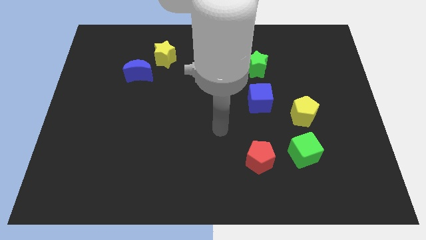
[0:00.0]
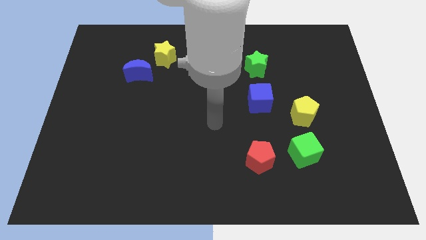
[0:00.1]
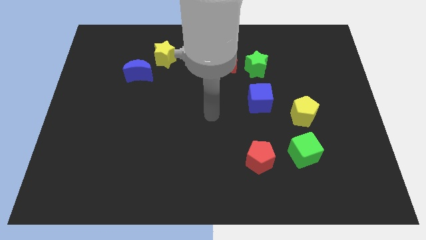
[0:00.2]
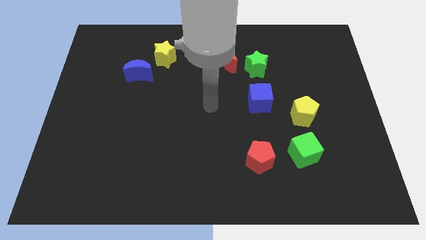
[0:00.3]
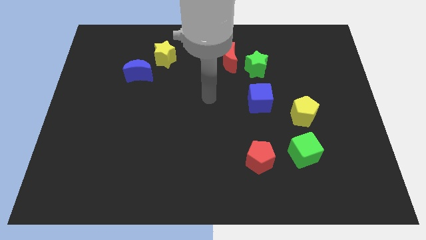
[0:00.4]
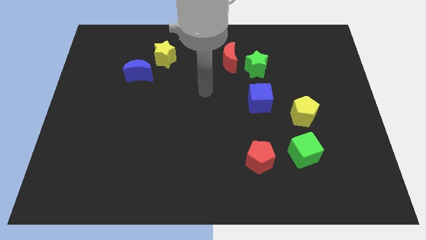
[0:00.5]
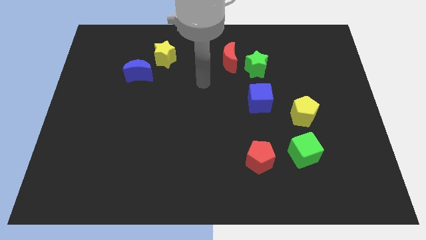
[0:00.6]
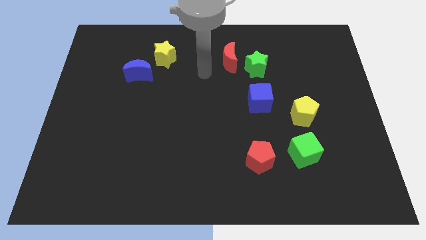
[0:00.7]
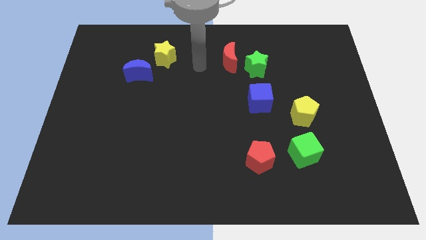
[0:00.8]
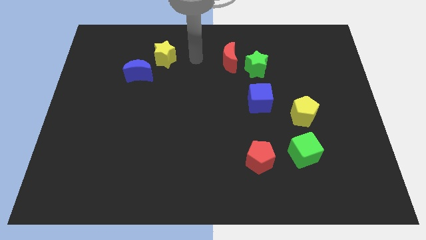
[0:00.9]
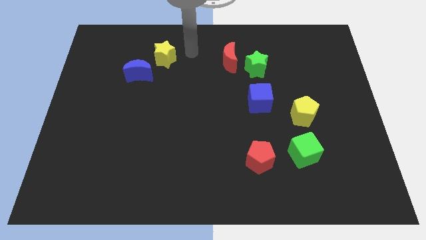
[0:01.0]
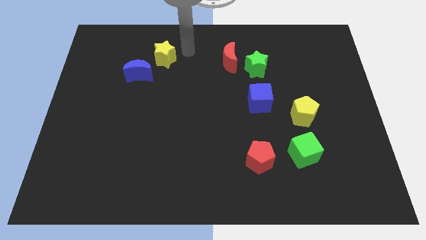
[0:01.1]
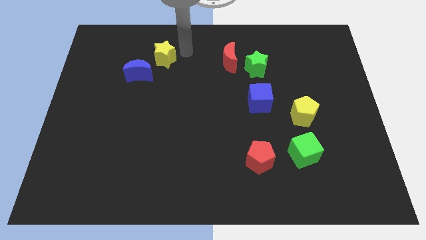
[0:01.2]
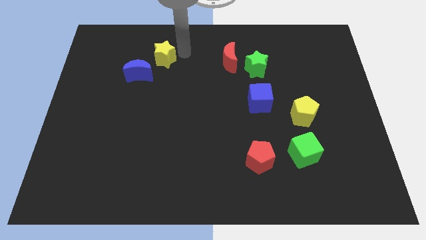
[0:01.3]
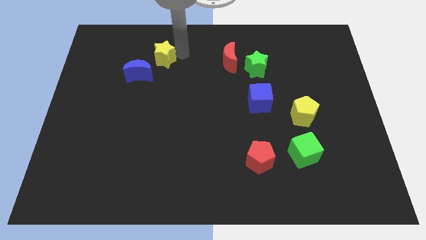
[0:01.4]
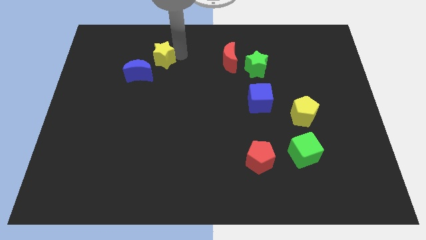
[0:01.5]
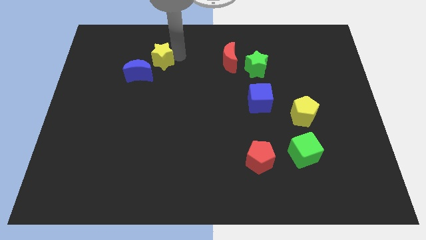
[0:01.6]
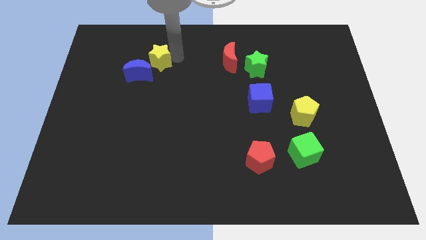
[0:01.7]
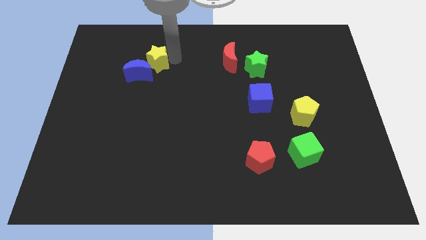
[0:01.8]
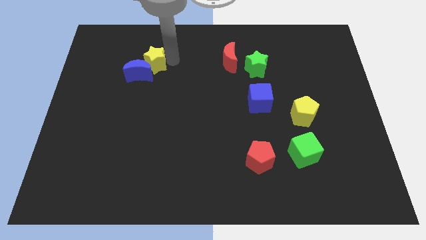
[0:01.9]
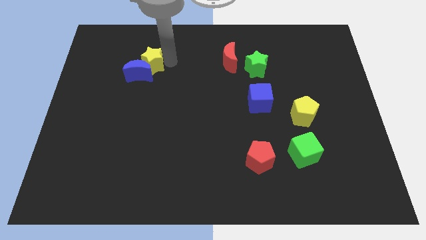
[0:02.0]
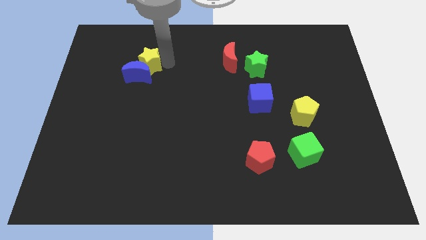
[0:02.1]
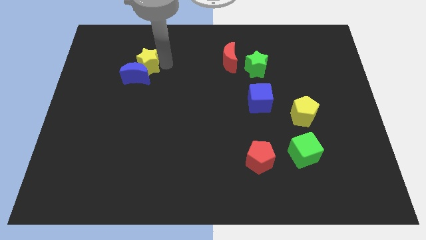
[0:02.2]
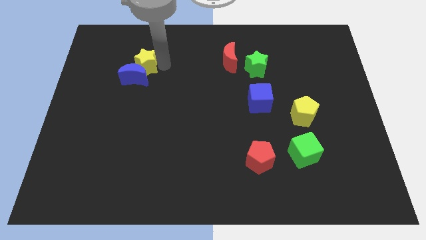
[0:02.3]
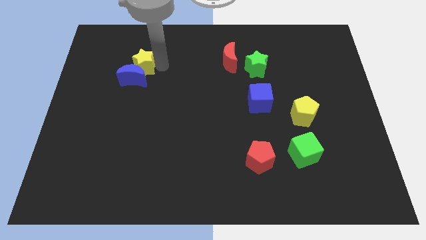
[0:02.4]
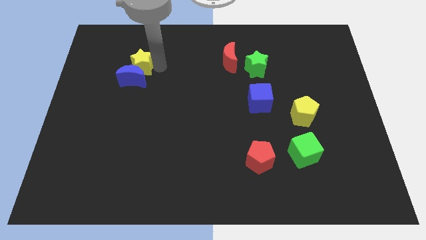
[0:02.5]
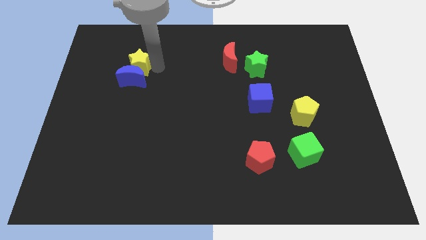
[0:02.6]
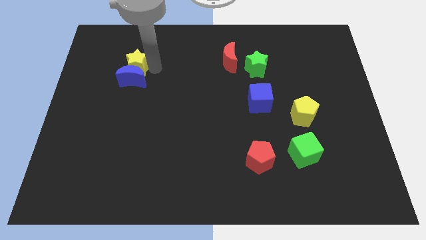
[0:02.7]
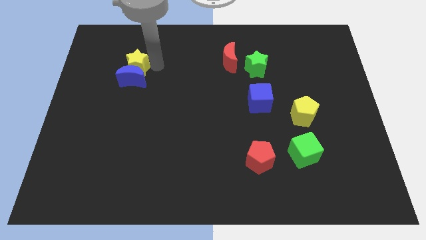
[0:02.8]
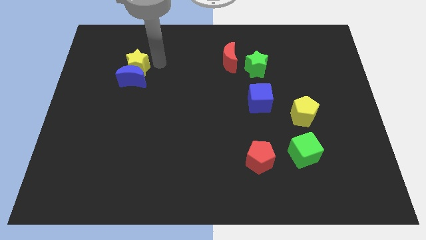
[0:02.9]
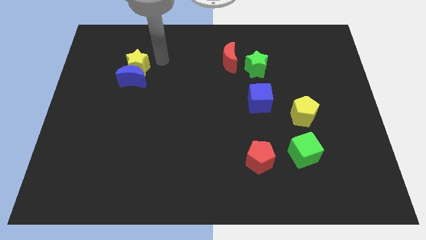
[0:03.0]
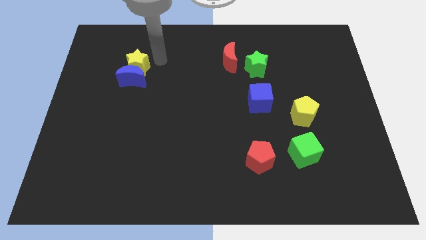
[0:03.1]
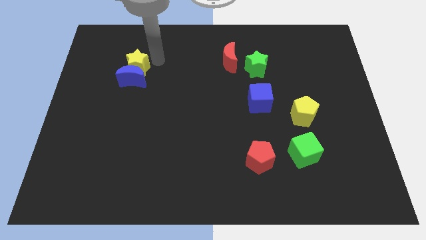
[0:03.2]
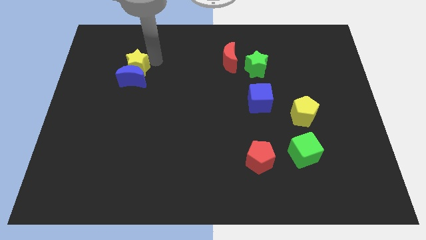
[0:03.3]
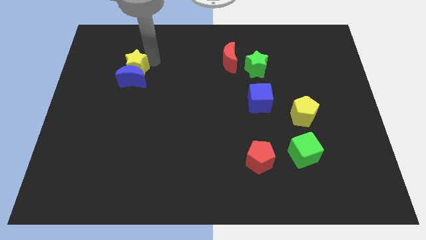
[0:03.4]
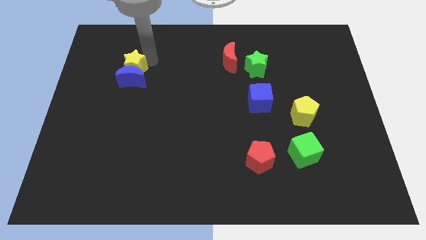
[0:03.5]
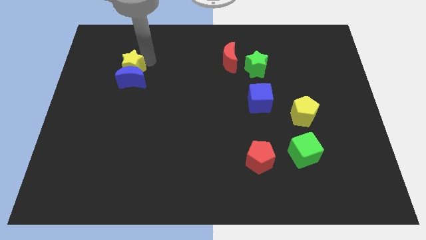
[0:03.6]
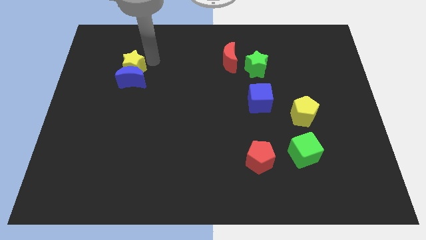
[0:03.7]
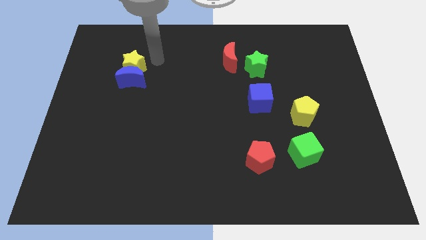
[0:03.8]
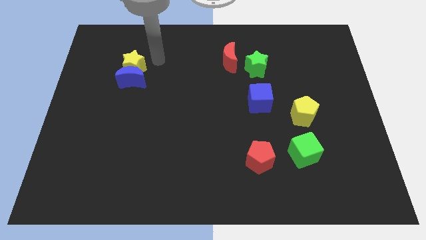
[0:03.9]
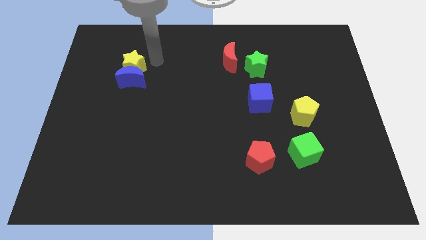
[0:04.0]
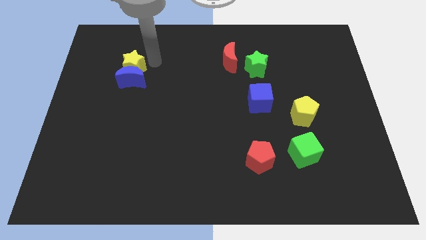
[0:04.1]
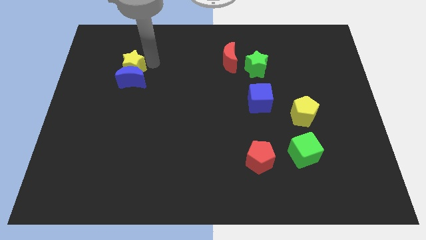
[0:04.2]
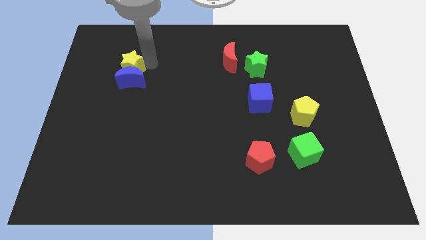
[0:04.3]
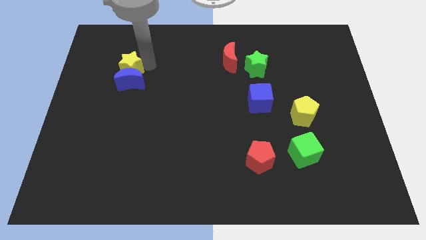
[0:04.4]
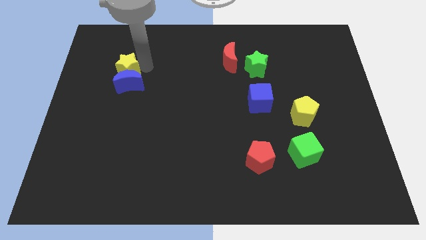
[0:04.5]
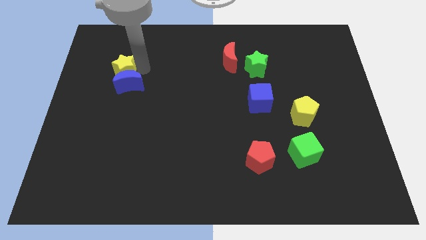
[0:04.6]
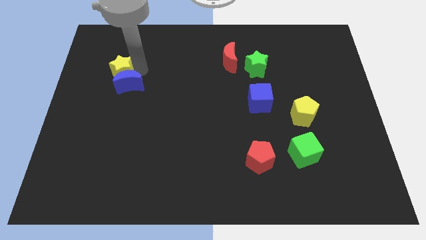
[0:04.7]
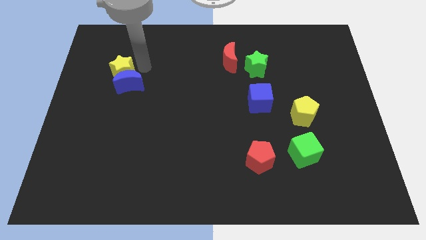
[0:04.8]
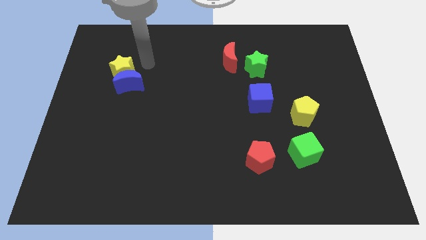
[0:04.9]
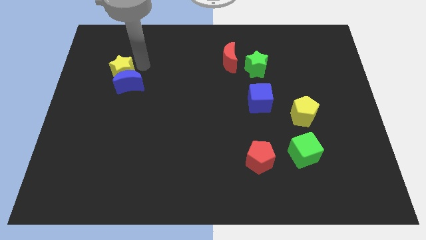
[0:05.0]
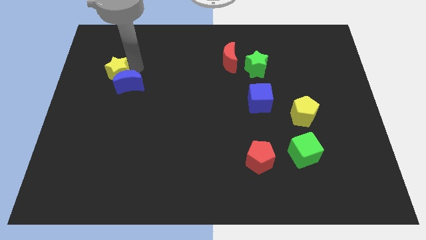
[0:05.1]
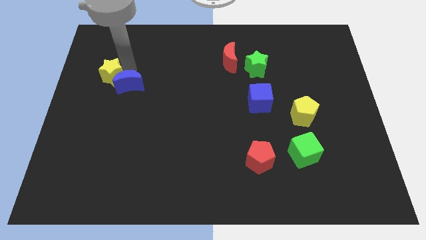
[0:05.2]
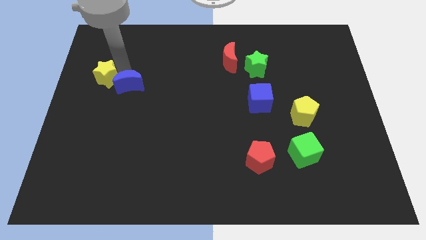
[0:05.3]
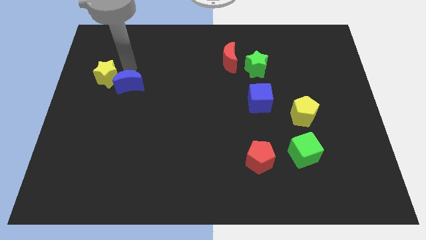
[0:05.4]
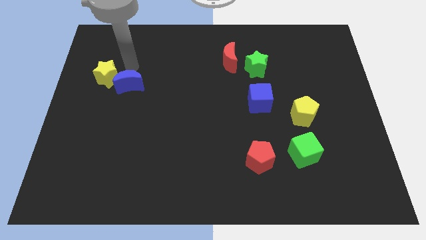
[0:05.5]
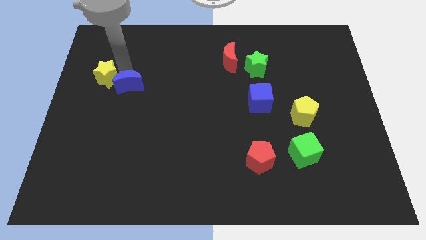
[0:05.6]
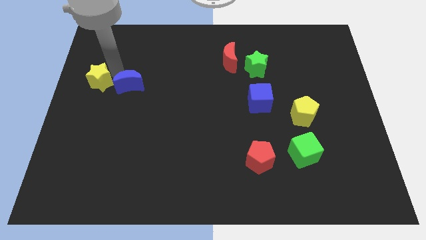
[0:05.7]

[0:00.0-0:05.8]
put the yellow star to the center left
